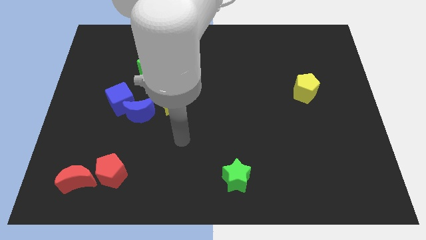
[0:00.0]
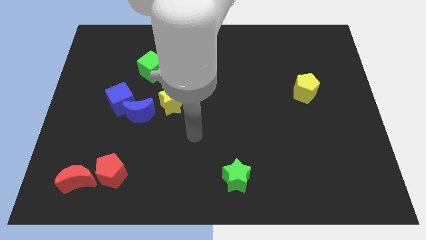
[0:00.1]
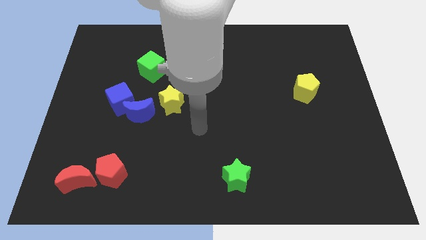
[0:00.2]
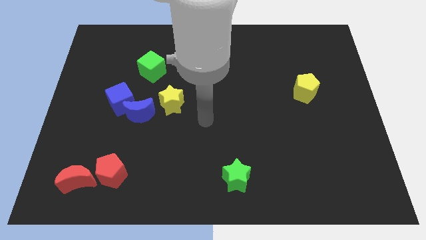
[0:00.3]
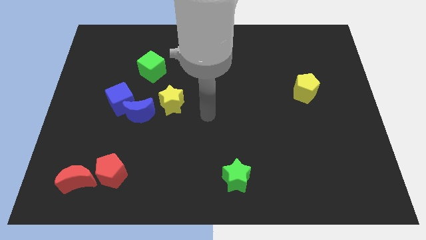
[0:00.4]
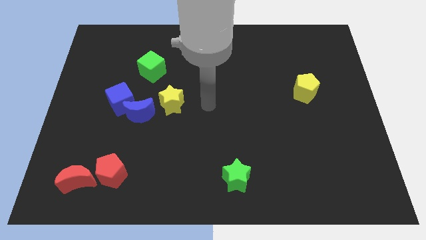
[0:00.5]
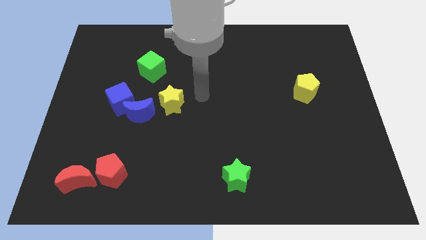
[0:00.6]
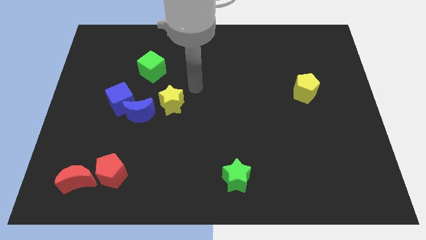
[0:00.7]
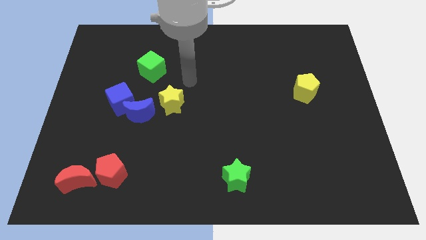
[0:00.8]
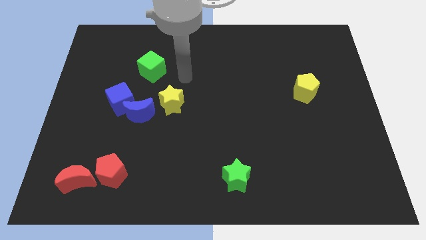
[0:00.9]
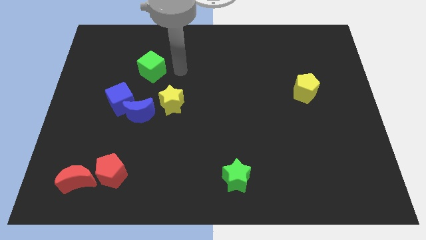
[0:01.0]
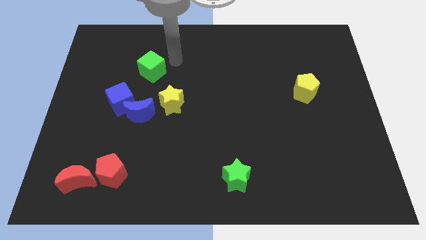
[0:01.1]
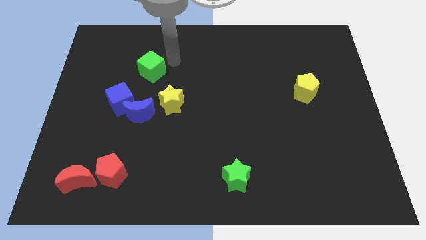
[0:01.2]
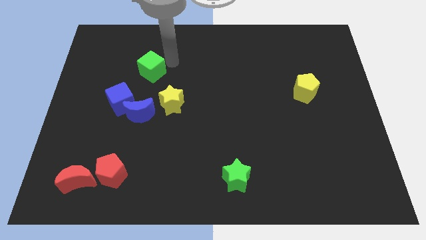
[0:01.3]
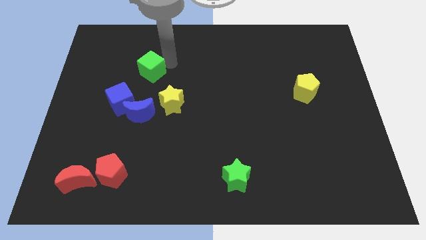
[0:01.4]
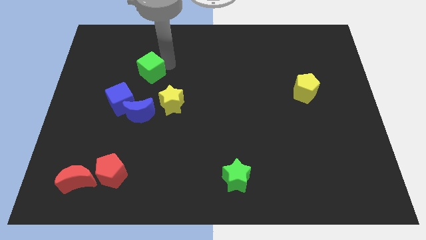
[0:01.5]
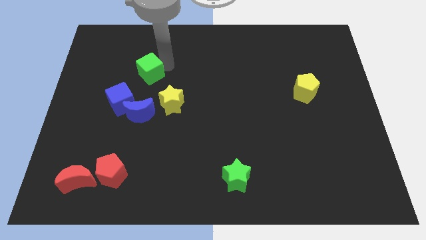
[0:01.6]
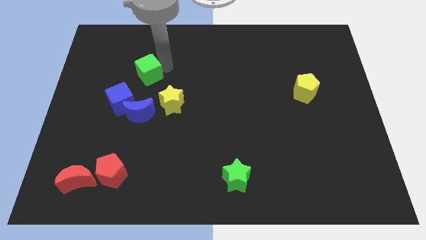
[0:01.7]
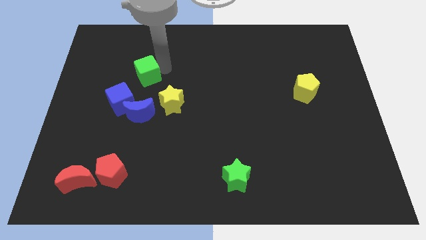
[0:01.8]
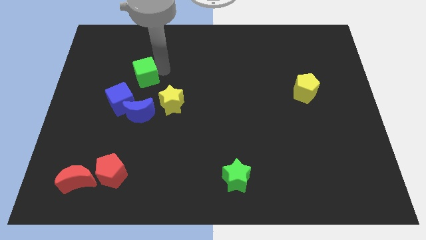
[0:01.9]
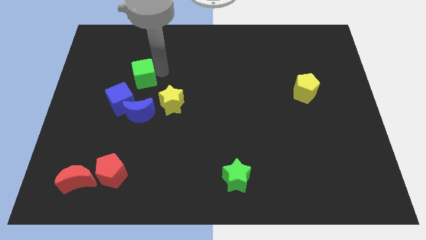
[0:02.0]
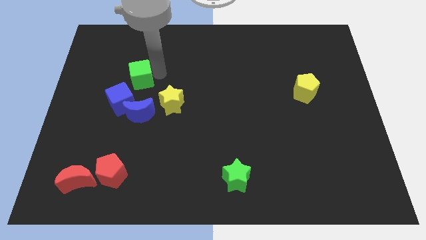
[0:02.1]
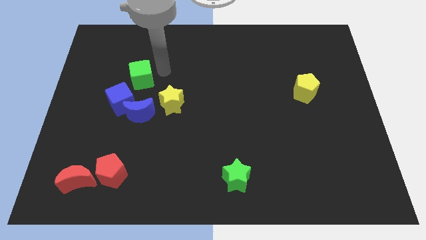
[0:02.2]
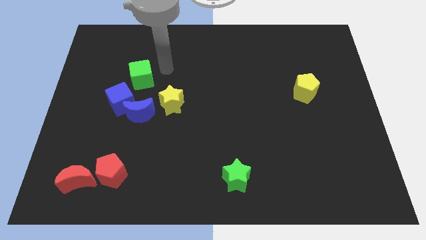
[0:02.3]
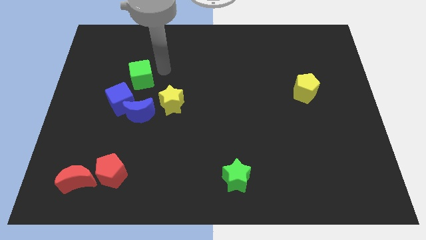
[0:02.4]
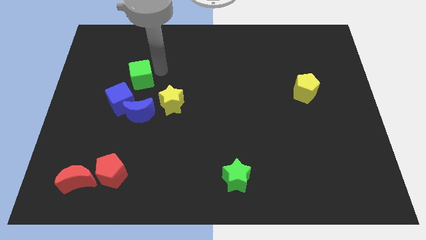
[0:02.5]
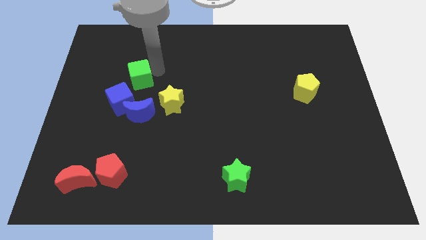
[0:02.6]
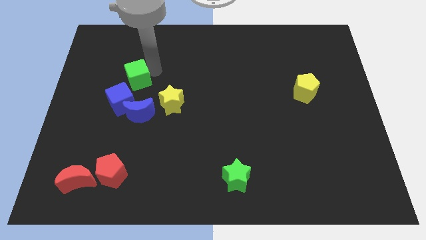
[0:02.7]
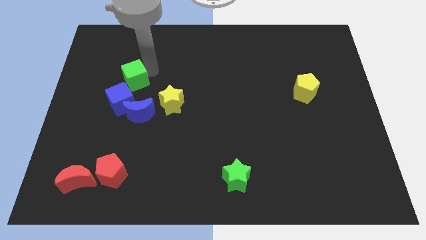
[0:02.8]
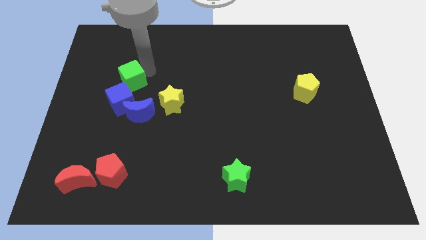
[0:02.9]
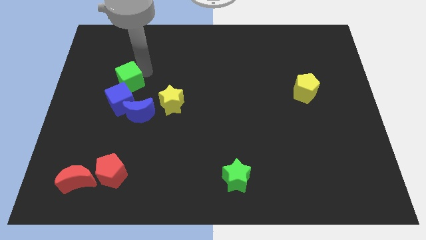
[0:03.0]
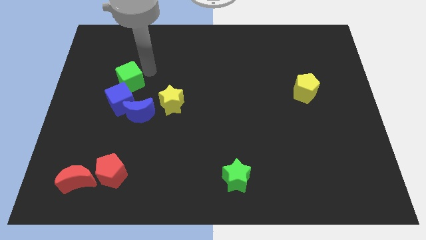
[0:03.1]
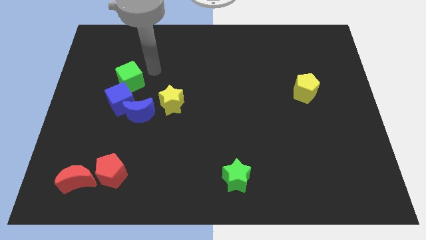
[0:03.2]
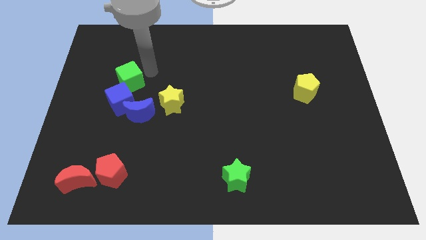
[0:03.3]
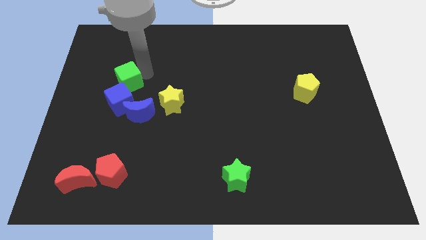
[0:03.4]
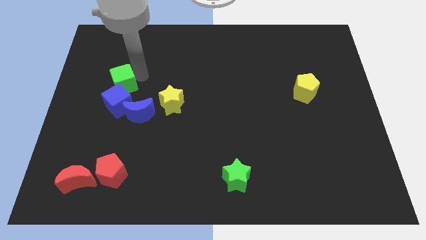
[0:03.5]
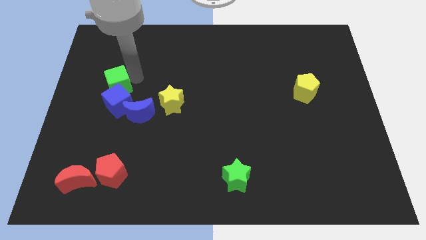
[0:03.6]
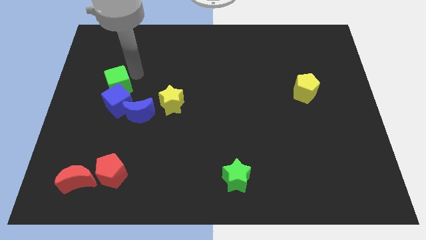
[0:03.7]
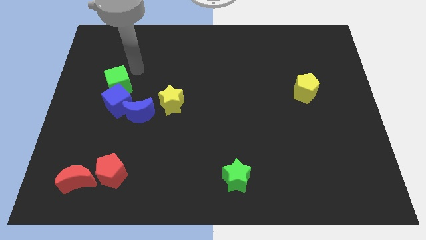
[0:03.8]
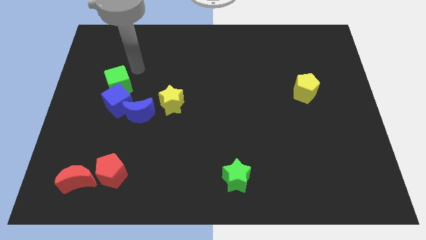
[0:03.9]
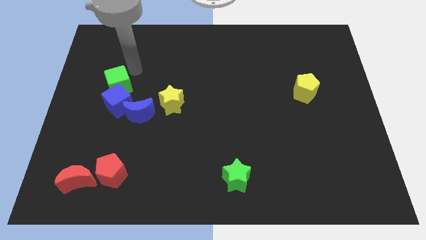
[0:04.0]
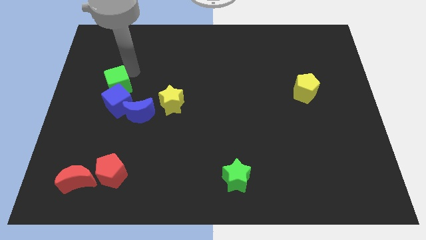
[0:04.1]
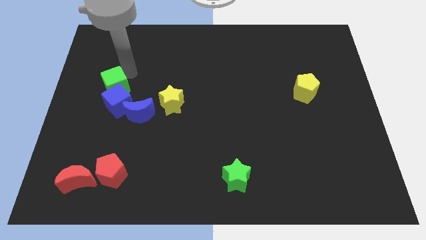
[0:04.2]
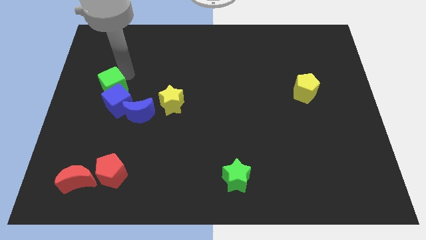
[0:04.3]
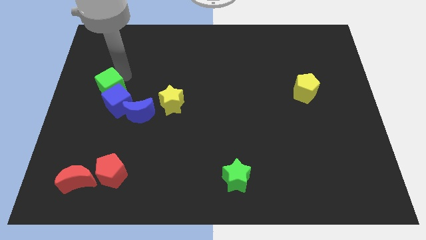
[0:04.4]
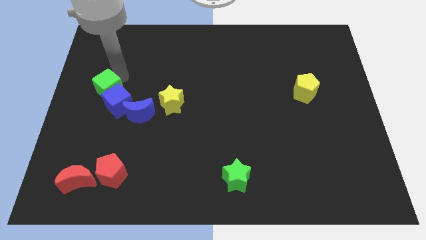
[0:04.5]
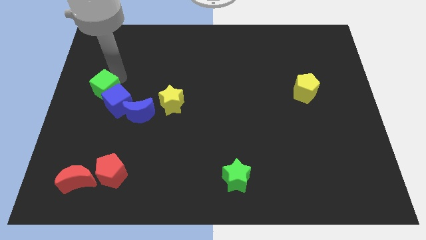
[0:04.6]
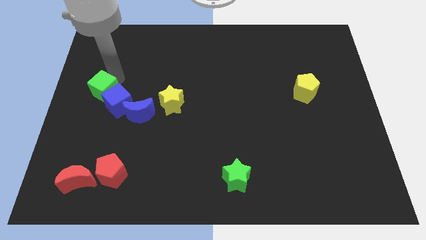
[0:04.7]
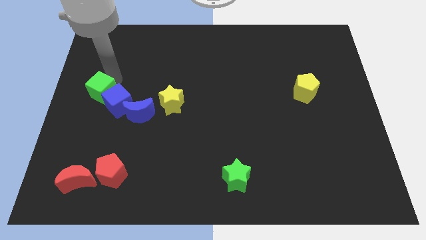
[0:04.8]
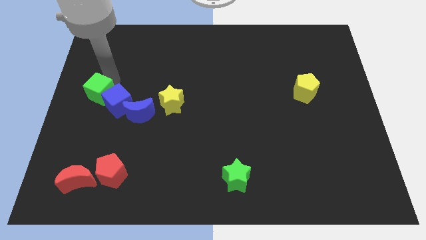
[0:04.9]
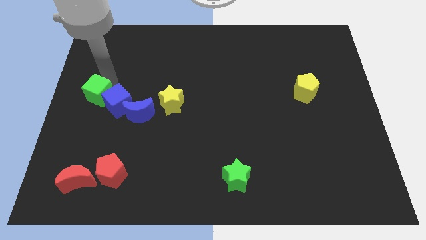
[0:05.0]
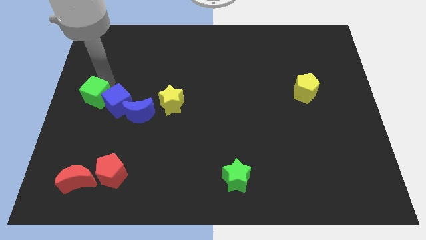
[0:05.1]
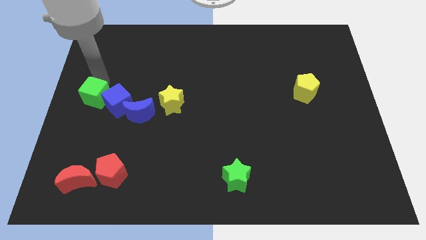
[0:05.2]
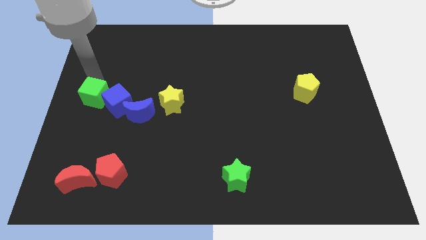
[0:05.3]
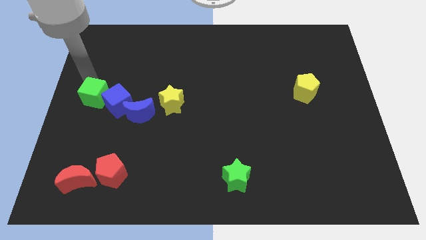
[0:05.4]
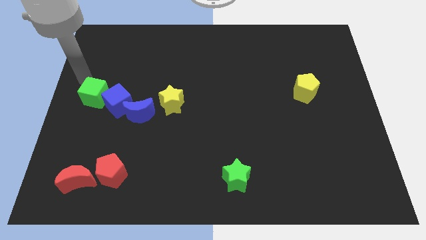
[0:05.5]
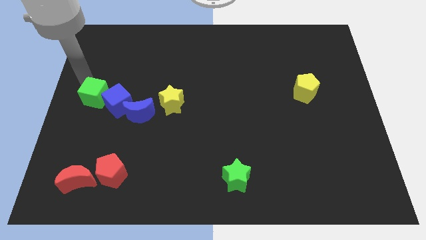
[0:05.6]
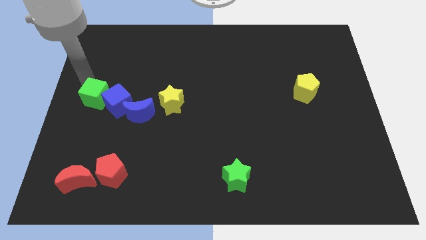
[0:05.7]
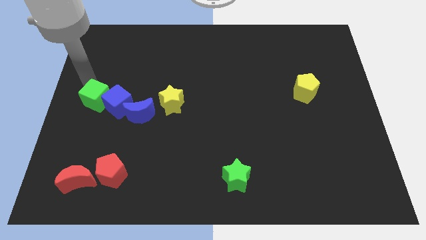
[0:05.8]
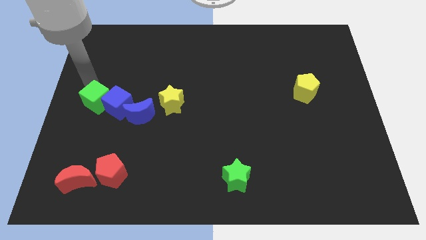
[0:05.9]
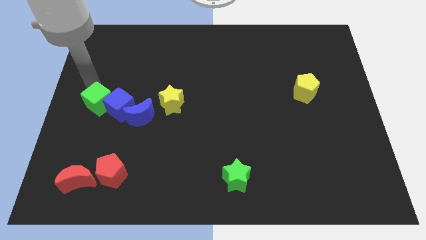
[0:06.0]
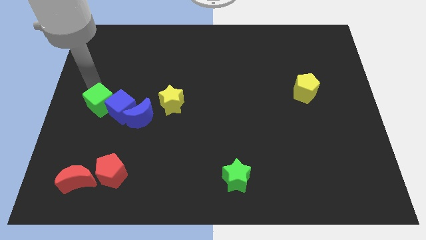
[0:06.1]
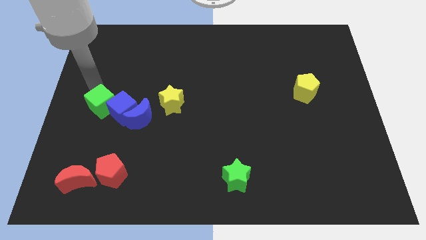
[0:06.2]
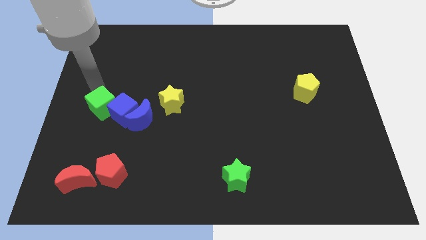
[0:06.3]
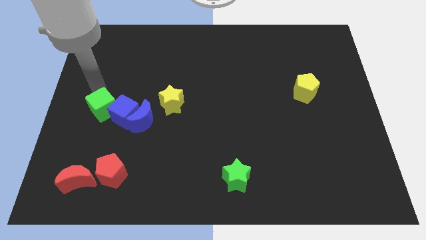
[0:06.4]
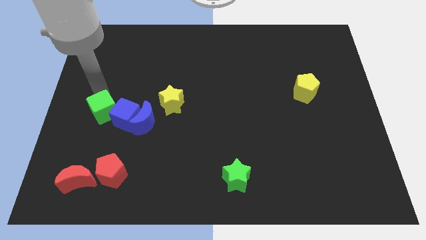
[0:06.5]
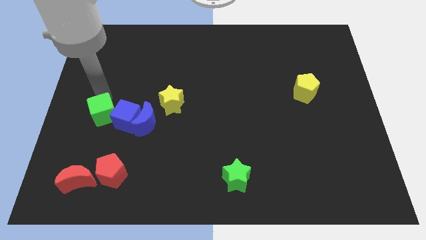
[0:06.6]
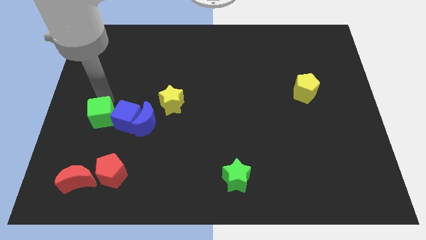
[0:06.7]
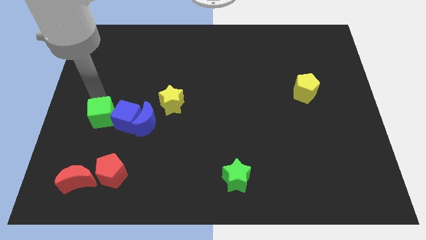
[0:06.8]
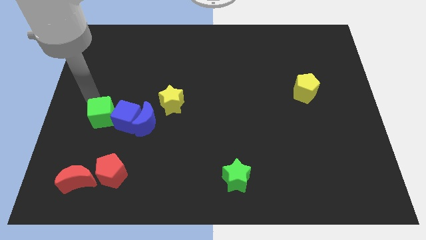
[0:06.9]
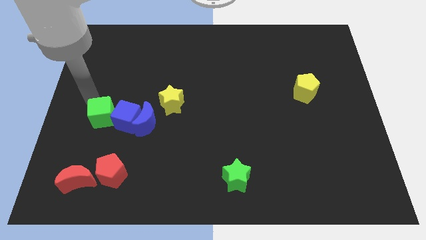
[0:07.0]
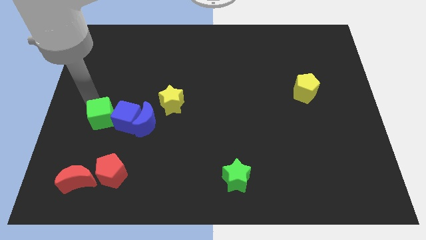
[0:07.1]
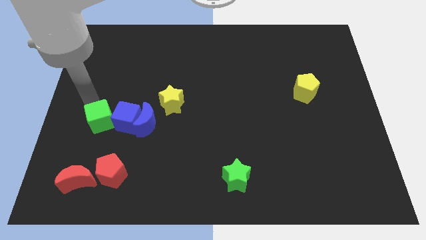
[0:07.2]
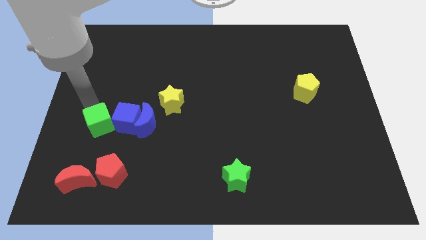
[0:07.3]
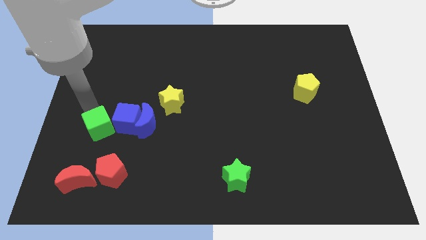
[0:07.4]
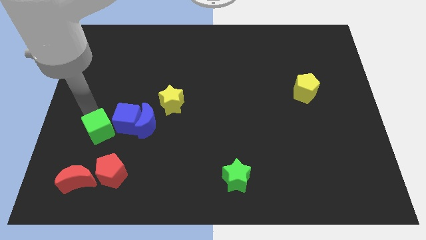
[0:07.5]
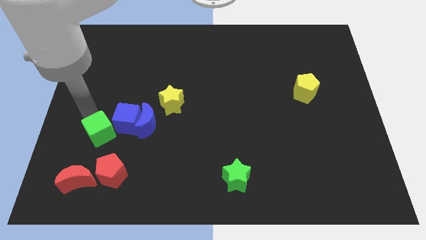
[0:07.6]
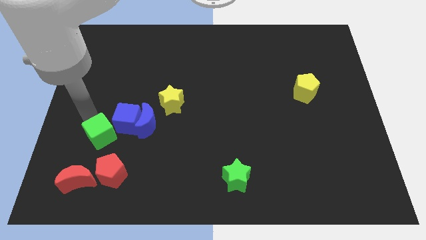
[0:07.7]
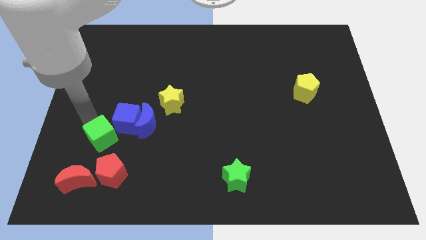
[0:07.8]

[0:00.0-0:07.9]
slide the green cube to the bottom left of the blue moon
